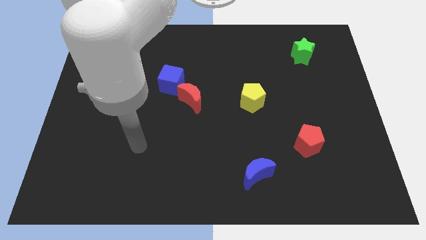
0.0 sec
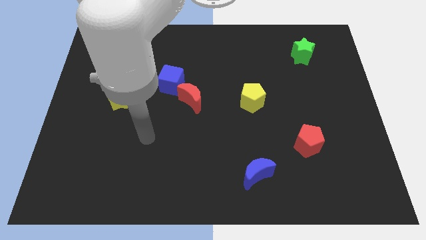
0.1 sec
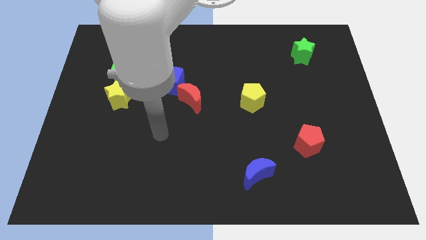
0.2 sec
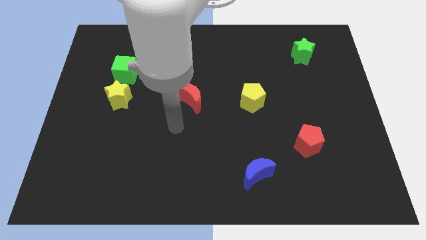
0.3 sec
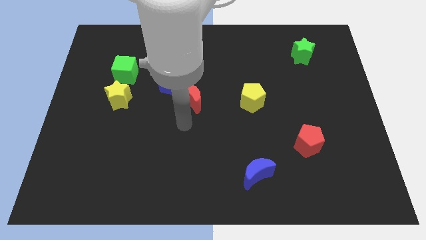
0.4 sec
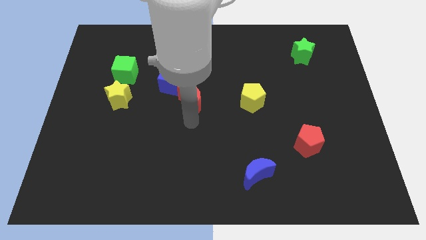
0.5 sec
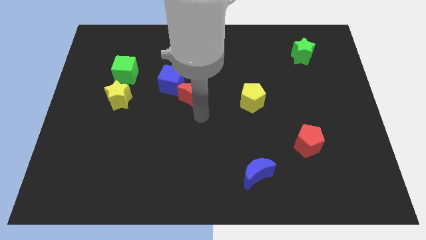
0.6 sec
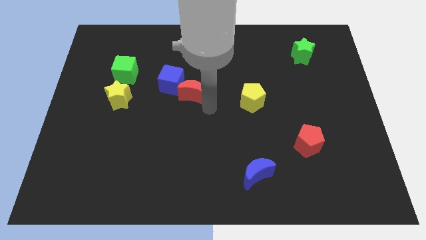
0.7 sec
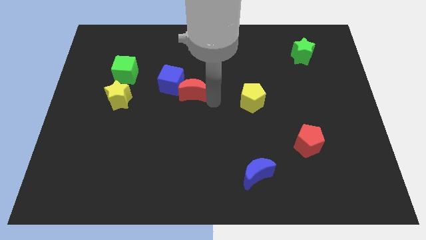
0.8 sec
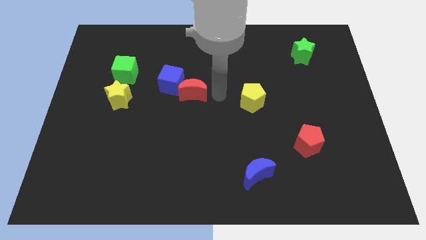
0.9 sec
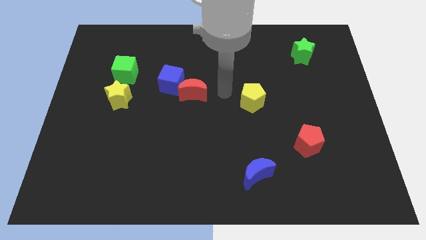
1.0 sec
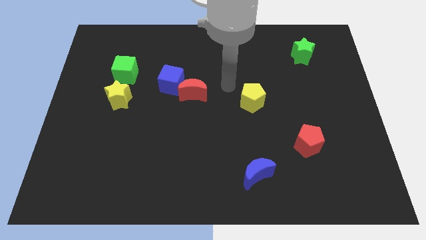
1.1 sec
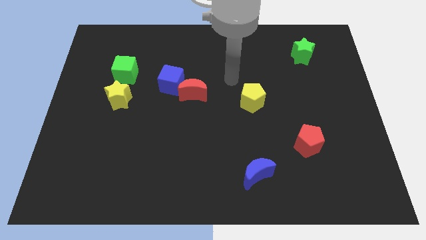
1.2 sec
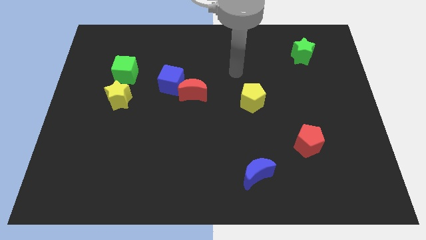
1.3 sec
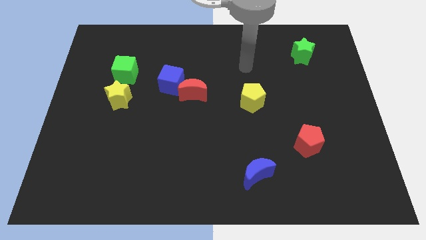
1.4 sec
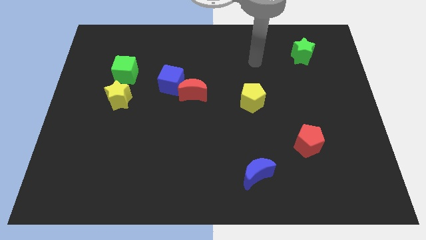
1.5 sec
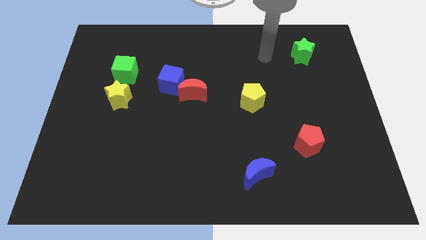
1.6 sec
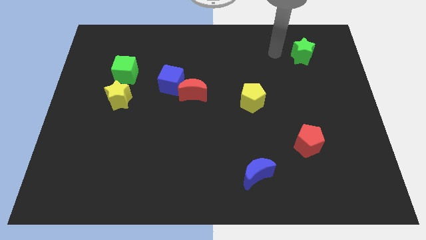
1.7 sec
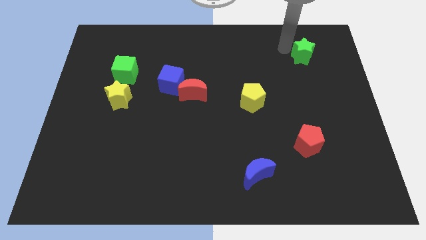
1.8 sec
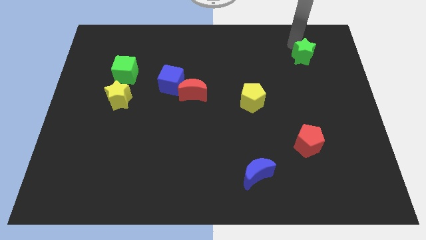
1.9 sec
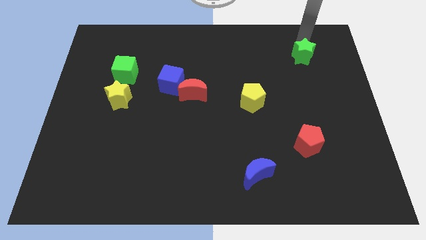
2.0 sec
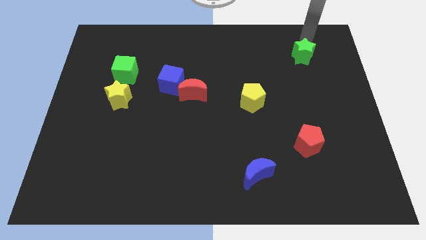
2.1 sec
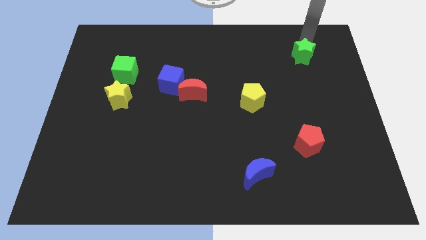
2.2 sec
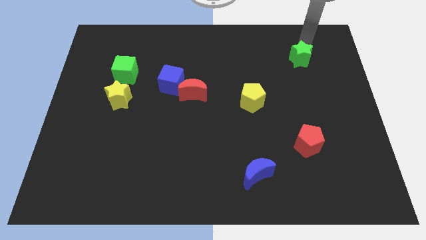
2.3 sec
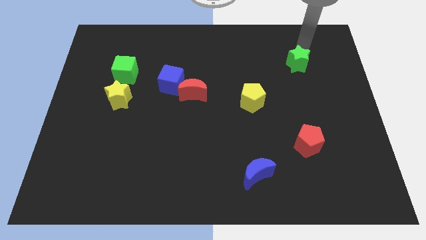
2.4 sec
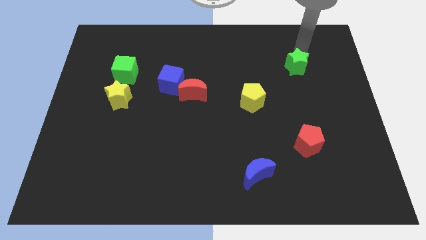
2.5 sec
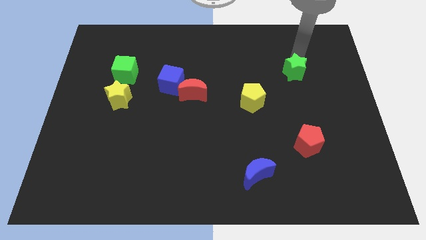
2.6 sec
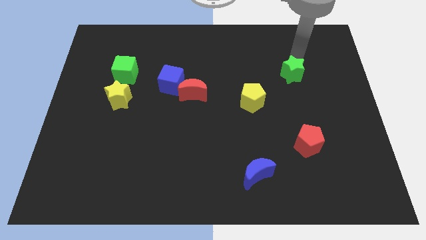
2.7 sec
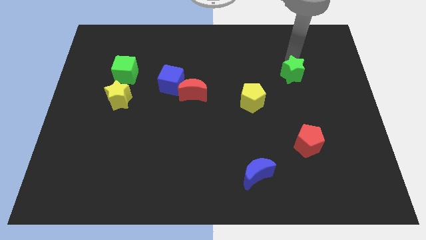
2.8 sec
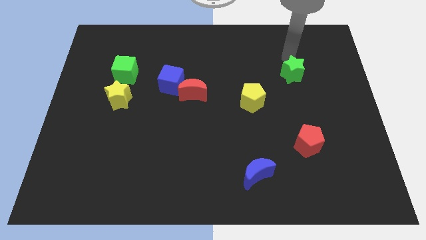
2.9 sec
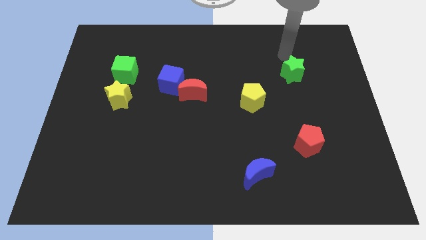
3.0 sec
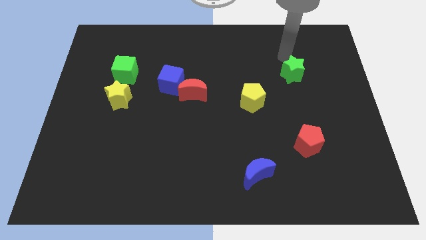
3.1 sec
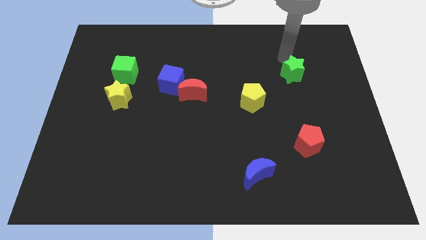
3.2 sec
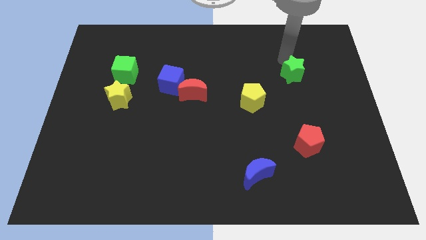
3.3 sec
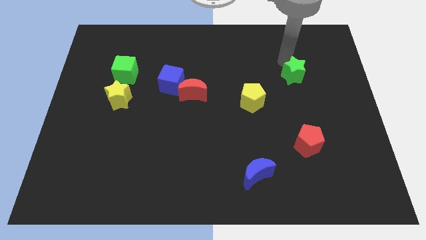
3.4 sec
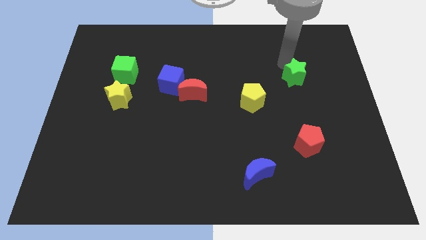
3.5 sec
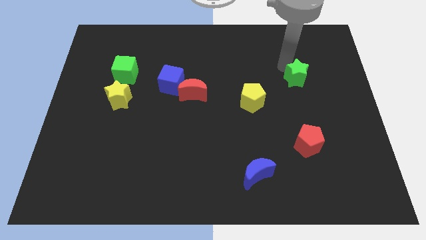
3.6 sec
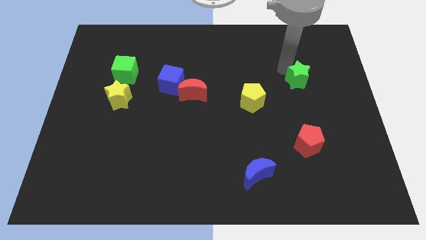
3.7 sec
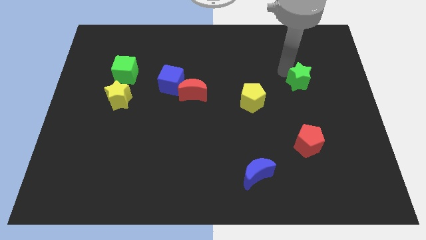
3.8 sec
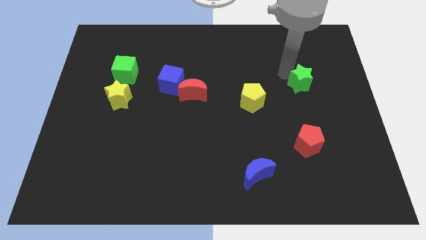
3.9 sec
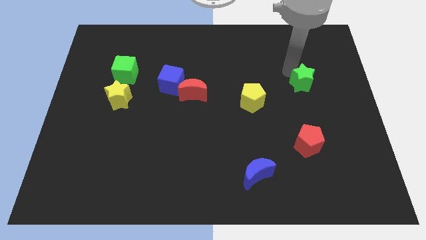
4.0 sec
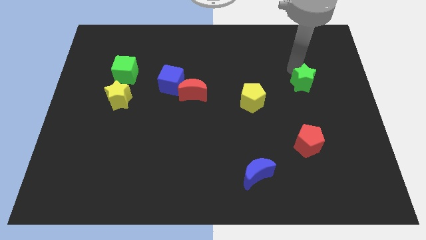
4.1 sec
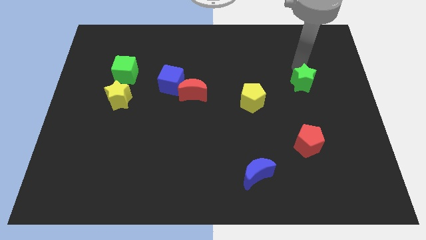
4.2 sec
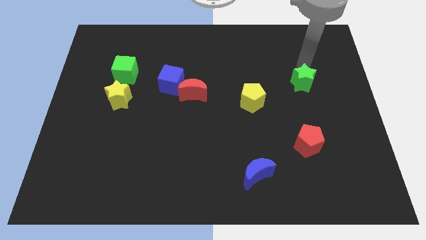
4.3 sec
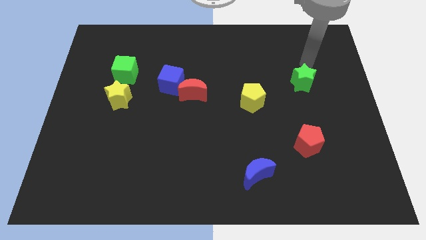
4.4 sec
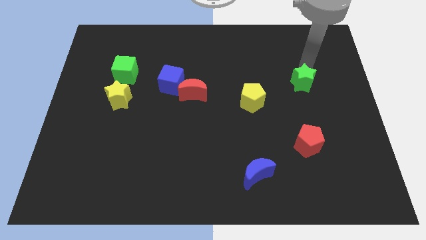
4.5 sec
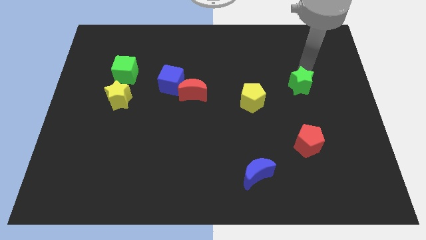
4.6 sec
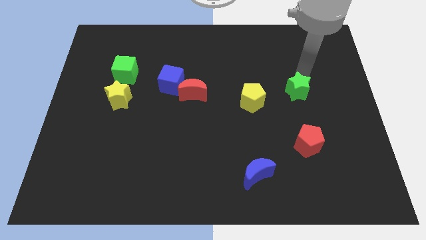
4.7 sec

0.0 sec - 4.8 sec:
put the green star right of the yellow pentagon

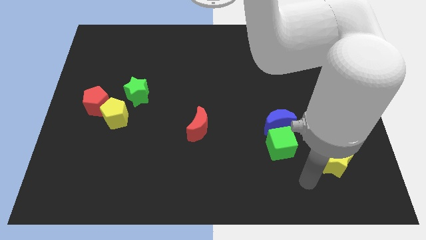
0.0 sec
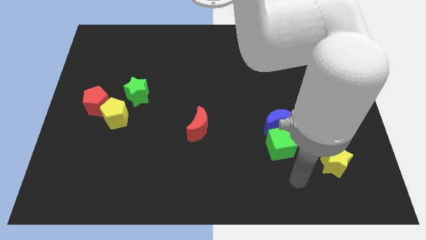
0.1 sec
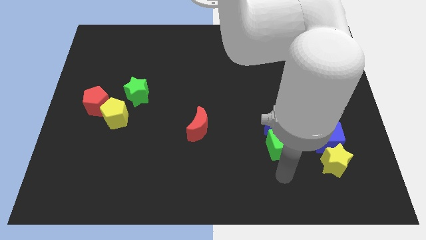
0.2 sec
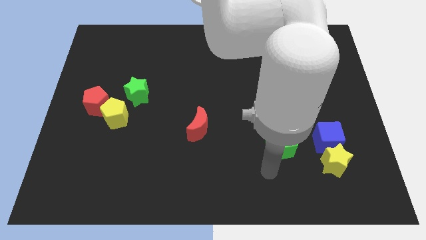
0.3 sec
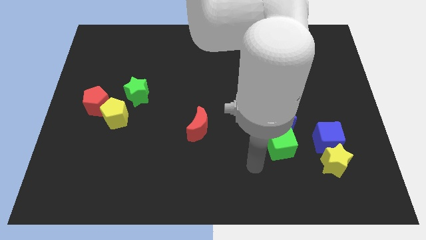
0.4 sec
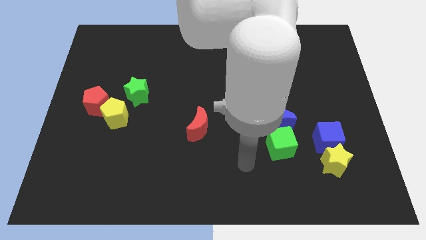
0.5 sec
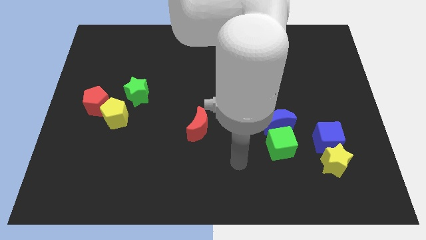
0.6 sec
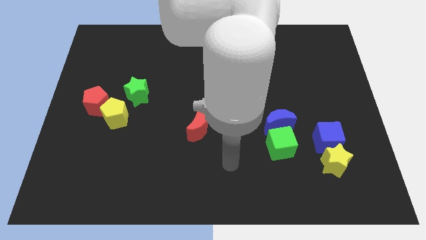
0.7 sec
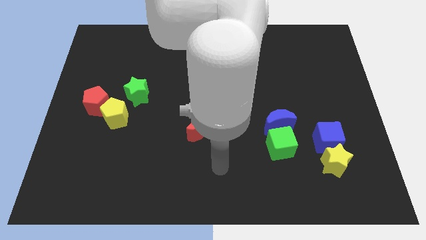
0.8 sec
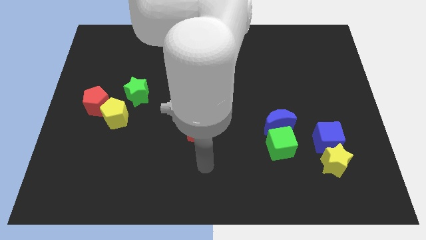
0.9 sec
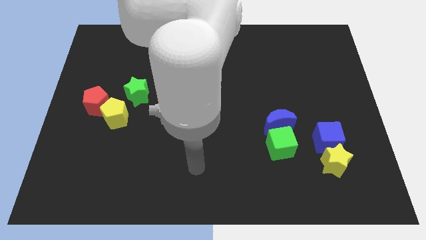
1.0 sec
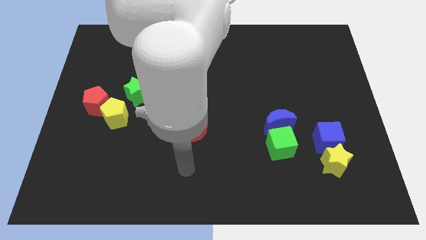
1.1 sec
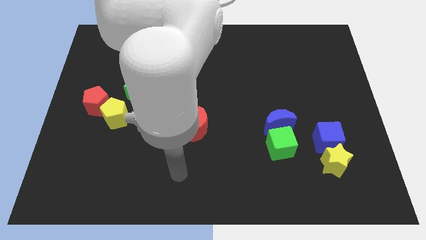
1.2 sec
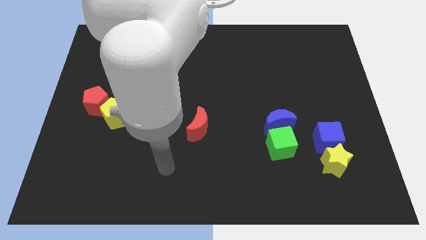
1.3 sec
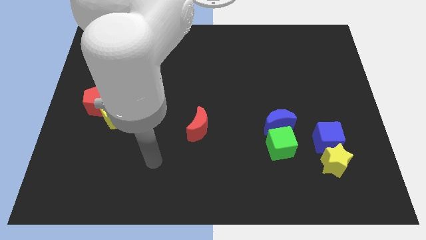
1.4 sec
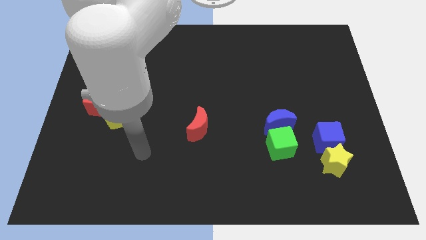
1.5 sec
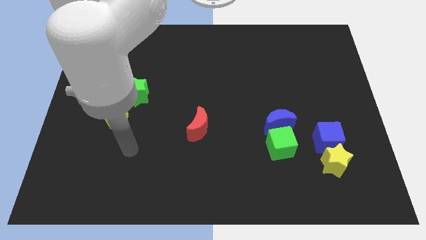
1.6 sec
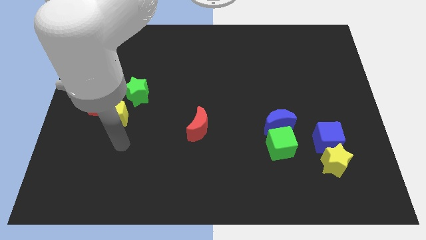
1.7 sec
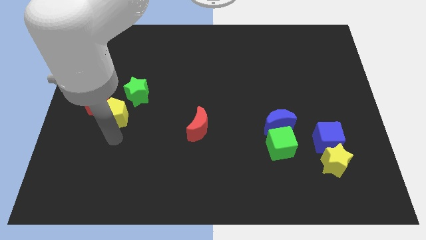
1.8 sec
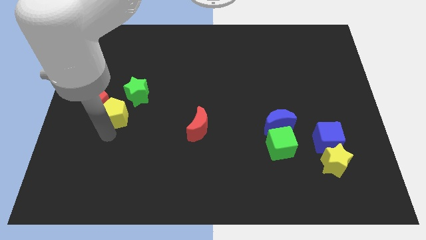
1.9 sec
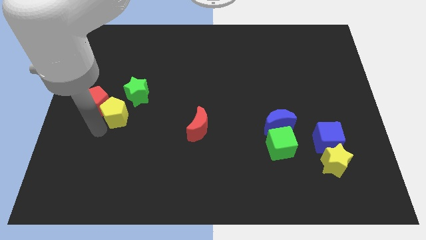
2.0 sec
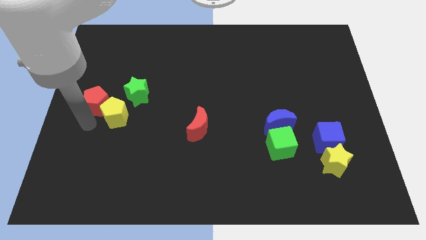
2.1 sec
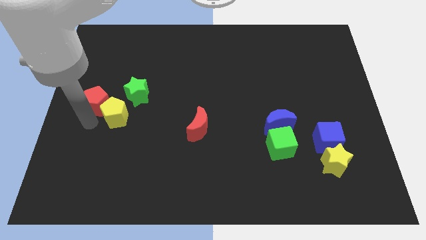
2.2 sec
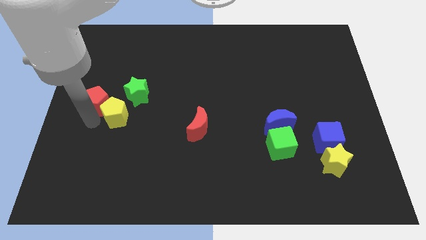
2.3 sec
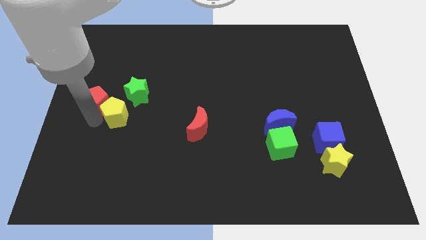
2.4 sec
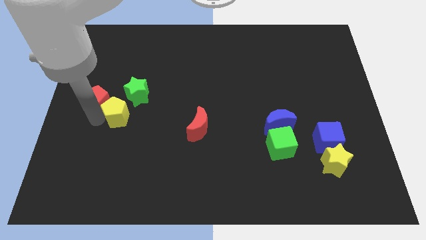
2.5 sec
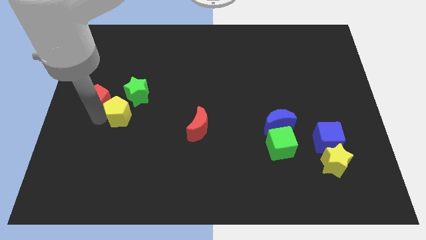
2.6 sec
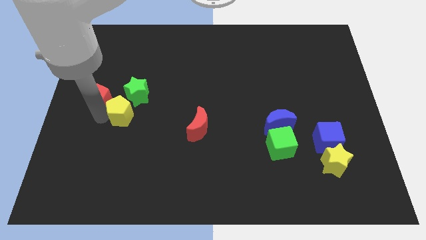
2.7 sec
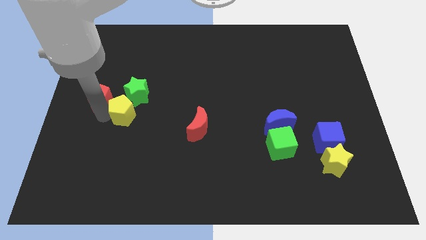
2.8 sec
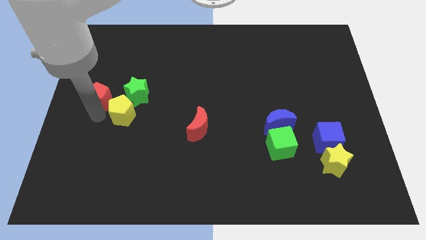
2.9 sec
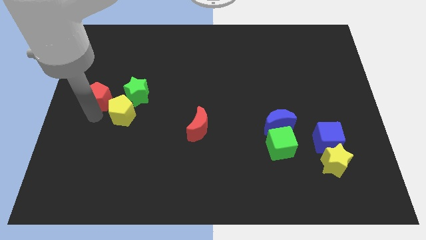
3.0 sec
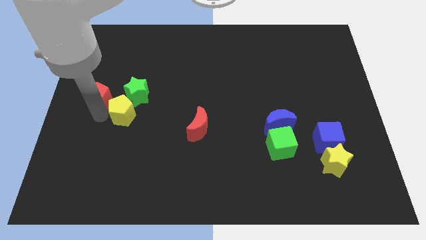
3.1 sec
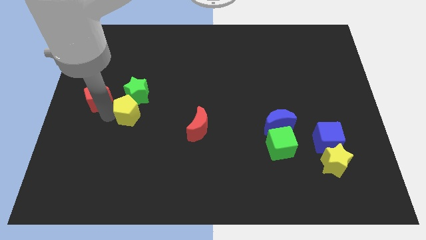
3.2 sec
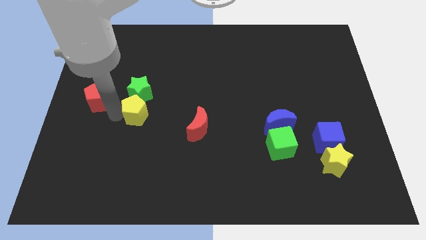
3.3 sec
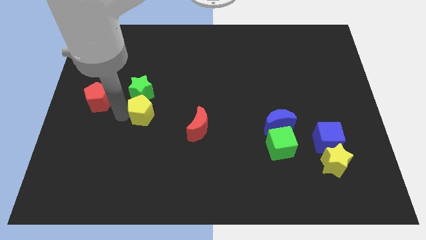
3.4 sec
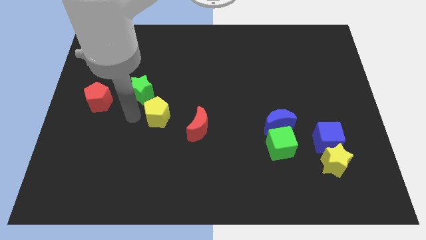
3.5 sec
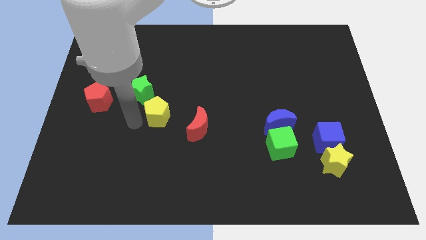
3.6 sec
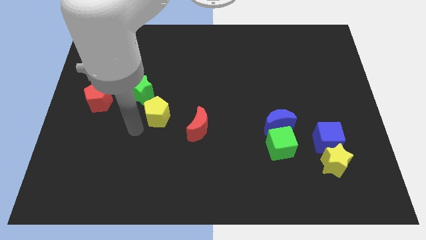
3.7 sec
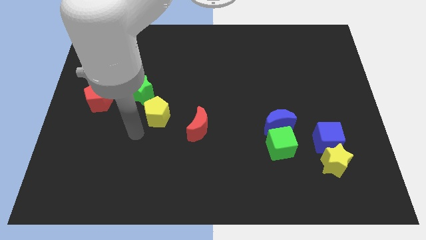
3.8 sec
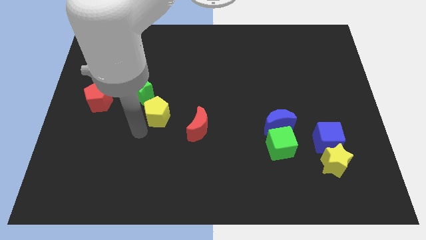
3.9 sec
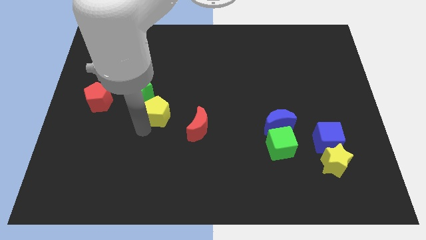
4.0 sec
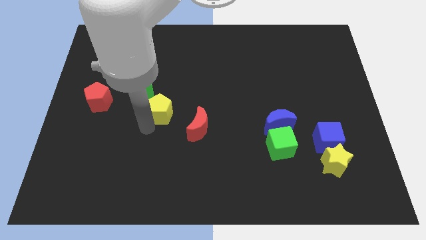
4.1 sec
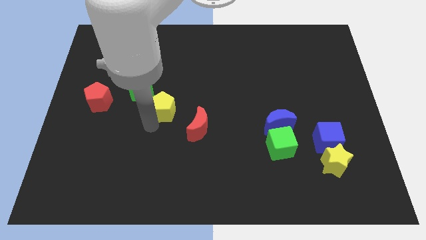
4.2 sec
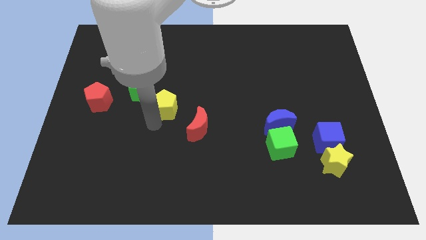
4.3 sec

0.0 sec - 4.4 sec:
slide the yellow pentagon right of the green star
